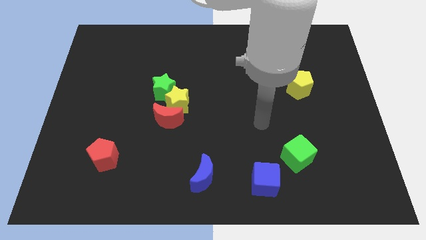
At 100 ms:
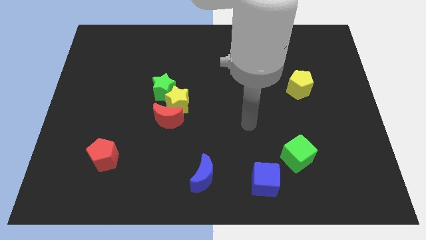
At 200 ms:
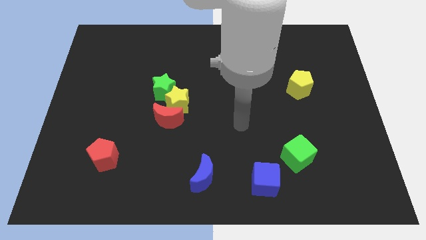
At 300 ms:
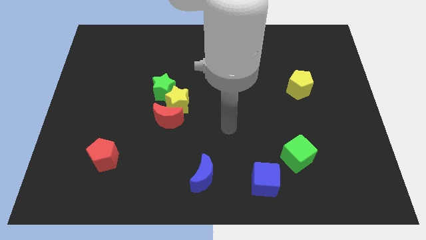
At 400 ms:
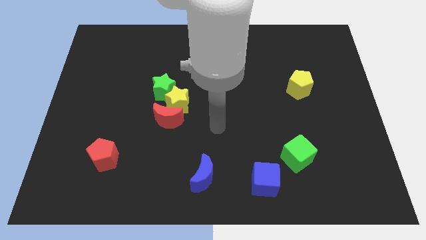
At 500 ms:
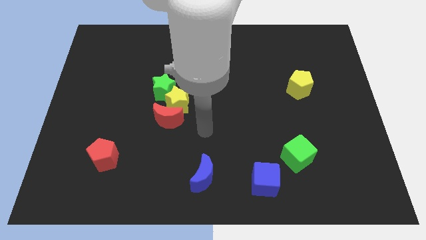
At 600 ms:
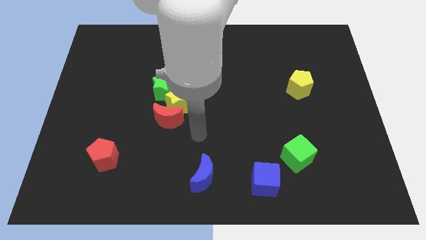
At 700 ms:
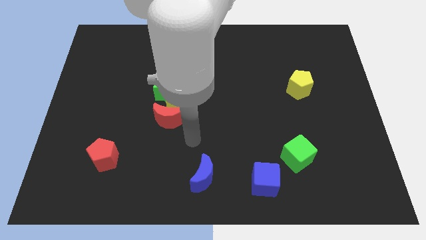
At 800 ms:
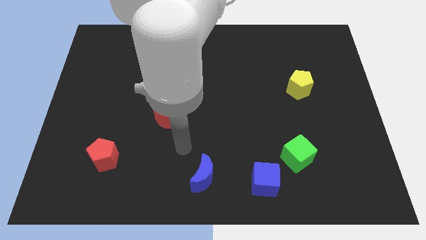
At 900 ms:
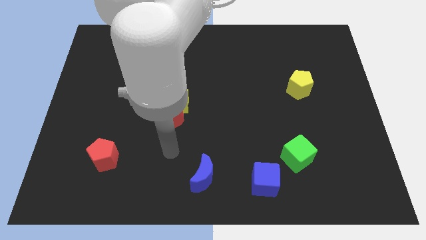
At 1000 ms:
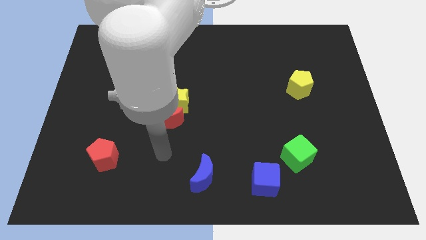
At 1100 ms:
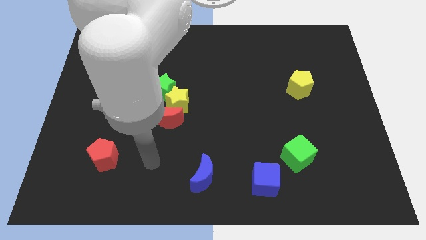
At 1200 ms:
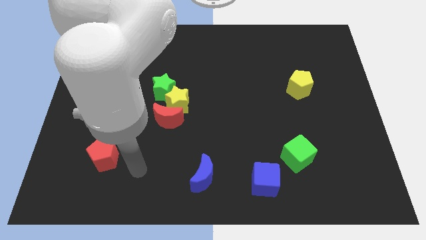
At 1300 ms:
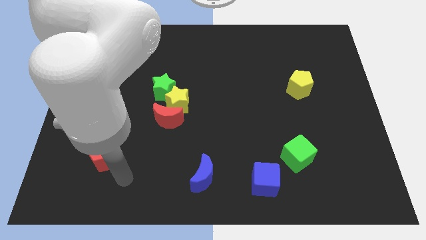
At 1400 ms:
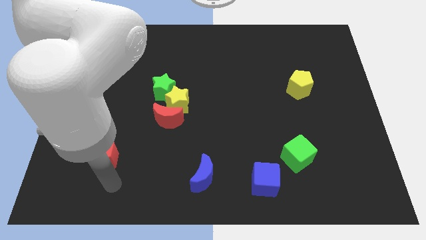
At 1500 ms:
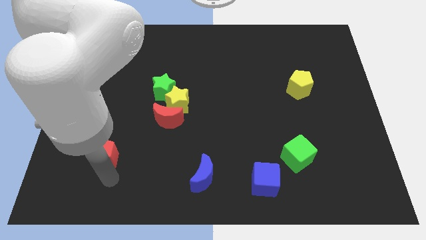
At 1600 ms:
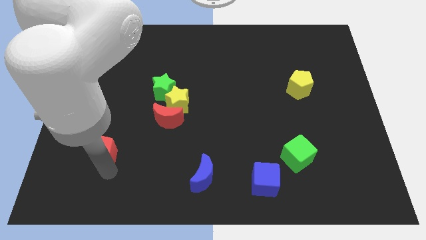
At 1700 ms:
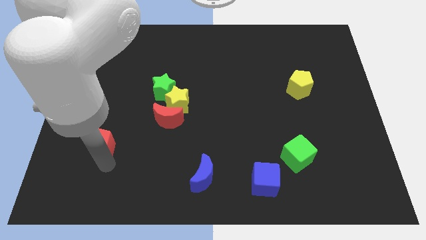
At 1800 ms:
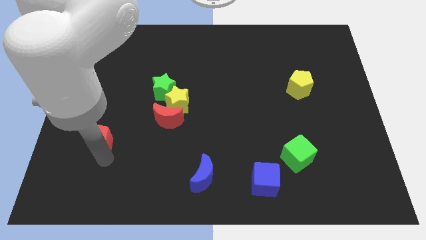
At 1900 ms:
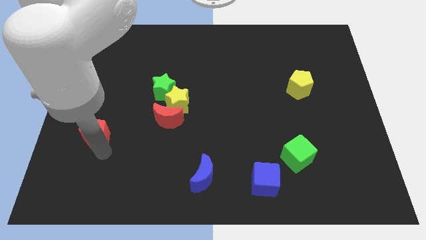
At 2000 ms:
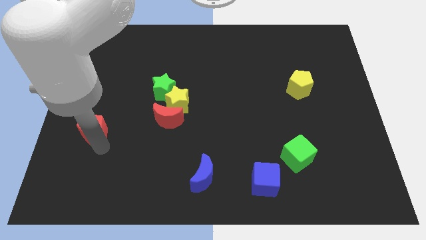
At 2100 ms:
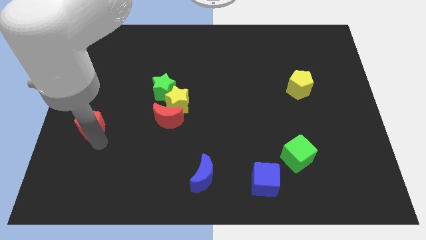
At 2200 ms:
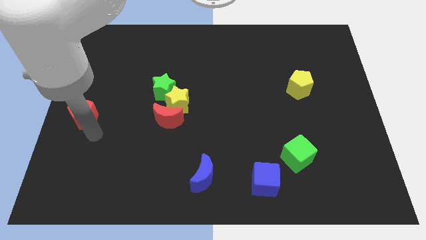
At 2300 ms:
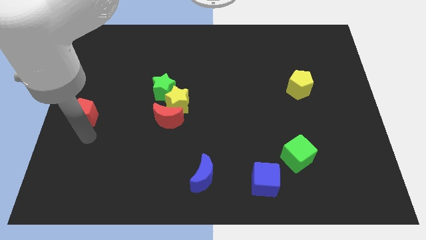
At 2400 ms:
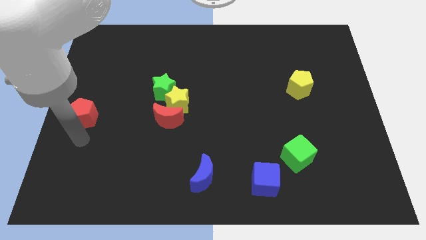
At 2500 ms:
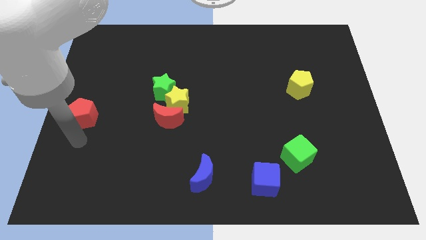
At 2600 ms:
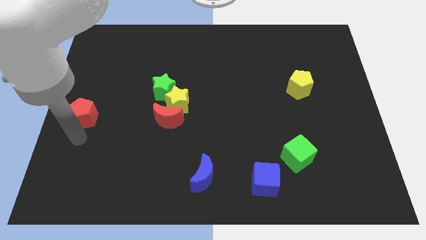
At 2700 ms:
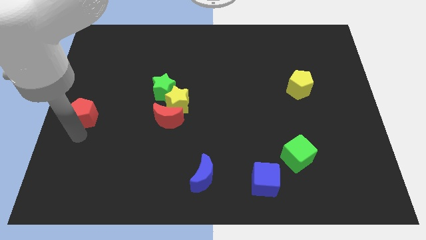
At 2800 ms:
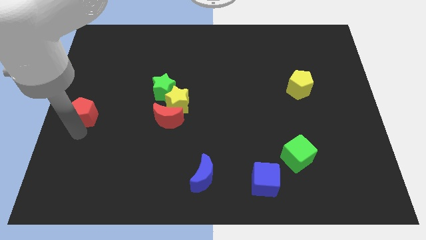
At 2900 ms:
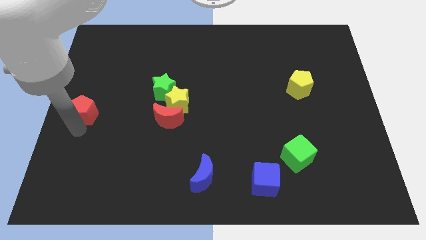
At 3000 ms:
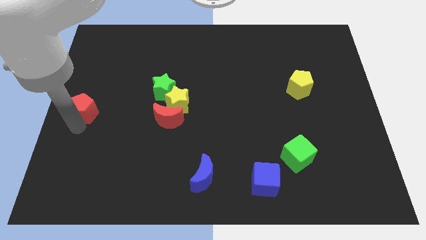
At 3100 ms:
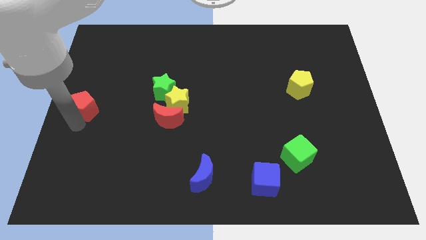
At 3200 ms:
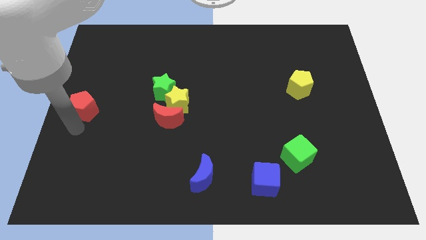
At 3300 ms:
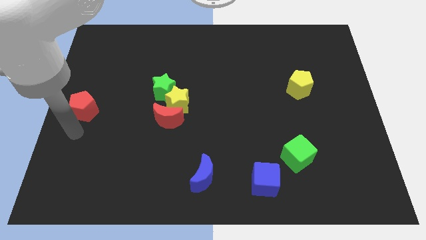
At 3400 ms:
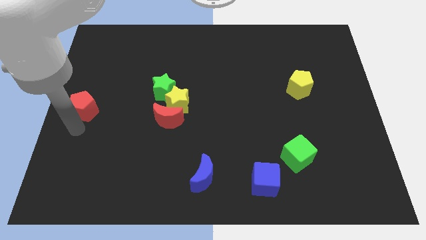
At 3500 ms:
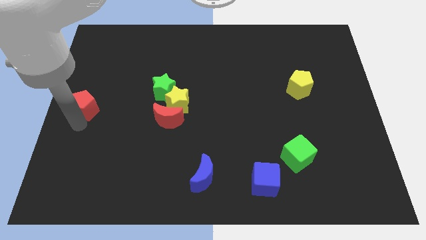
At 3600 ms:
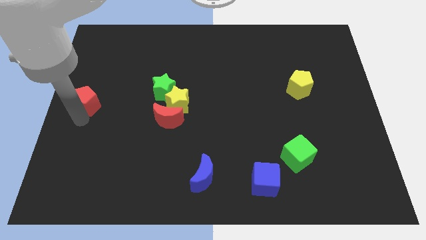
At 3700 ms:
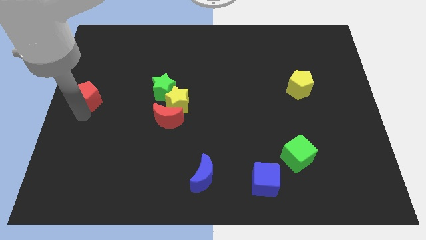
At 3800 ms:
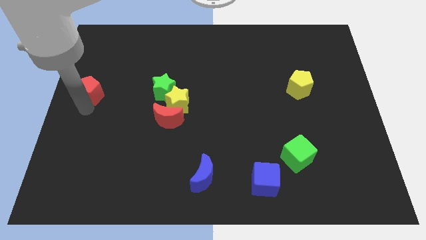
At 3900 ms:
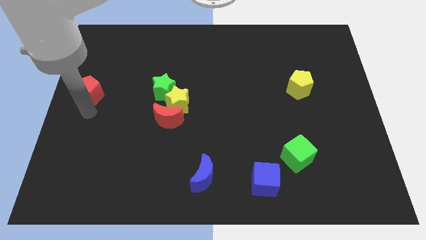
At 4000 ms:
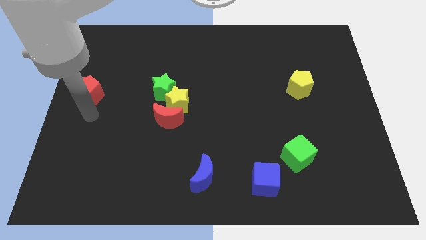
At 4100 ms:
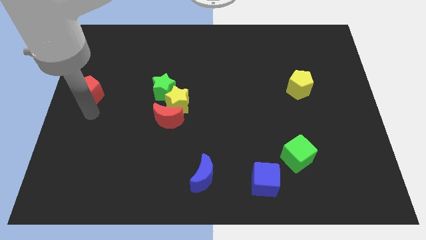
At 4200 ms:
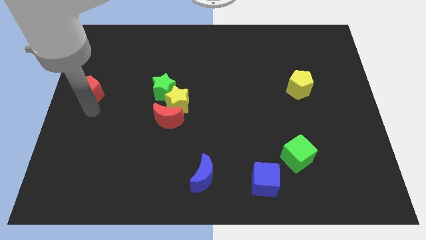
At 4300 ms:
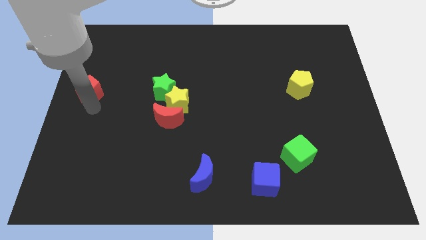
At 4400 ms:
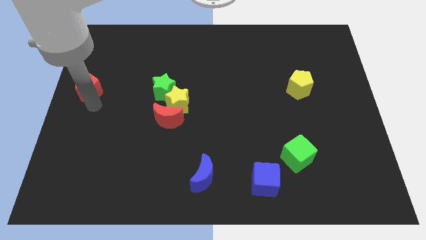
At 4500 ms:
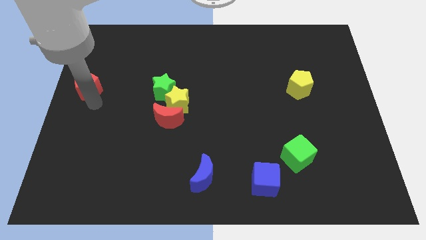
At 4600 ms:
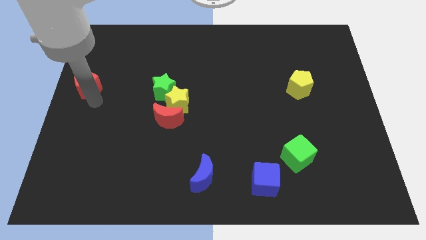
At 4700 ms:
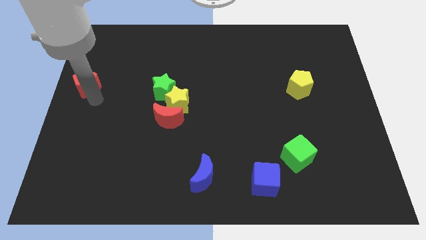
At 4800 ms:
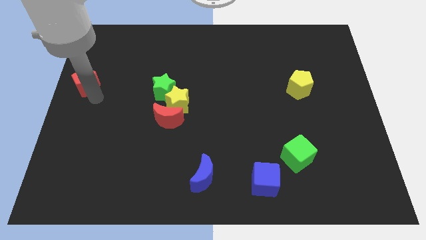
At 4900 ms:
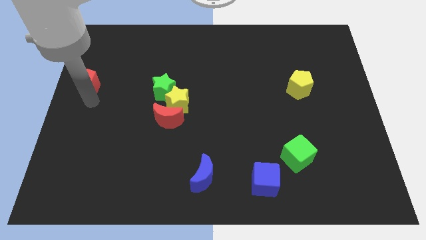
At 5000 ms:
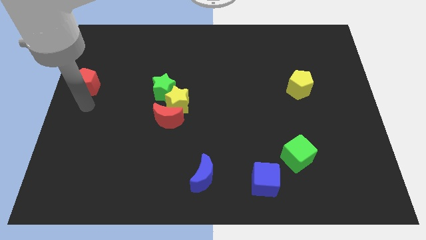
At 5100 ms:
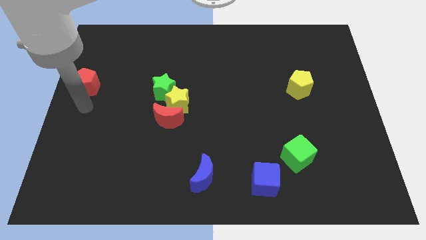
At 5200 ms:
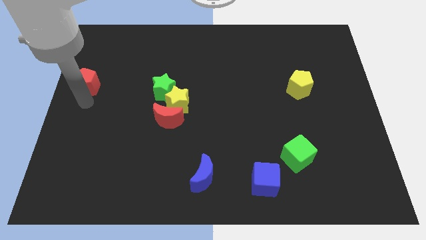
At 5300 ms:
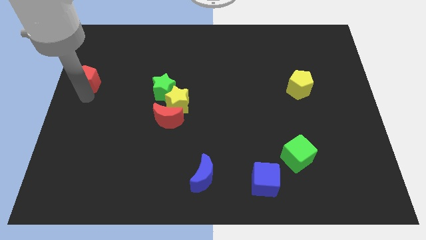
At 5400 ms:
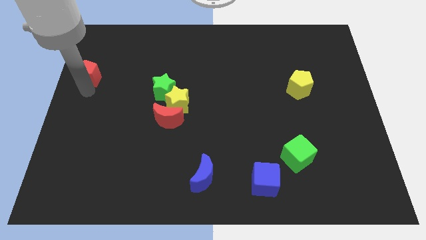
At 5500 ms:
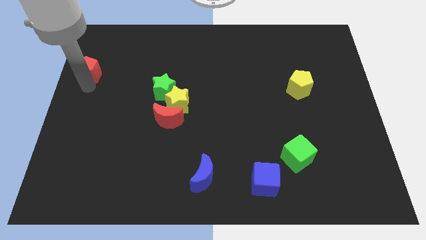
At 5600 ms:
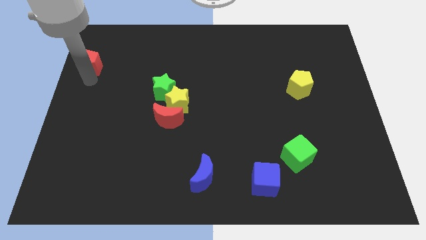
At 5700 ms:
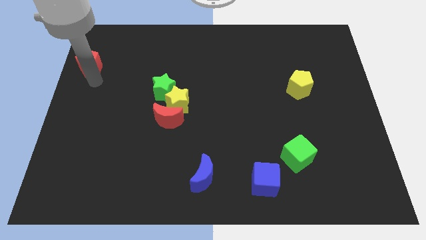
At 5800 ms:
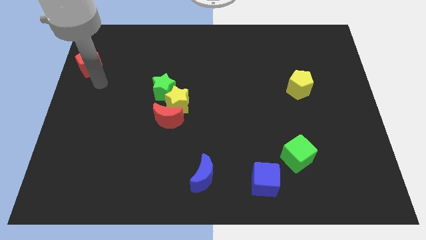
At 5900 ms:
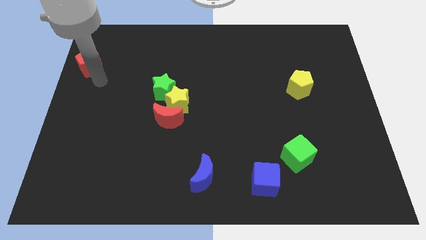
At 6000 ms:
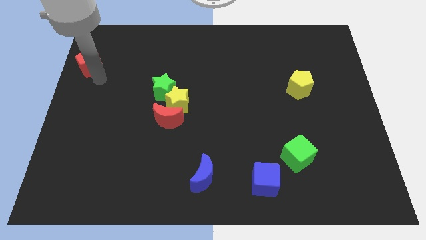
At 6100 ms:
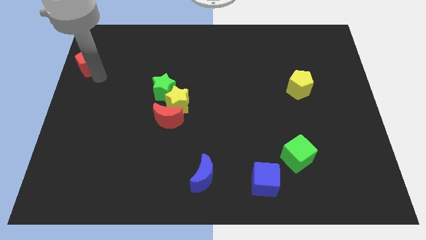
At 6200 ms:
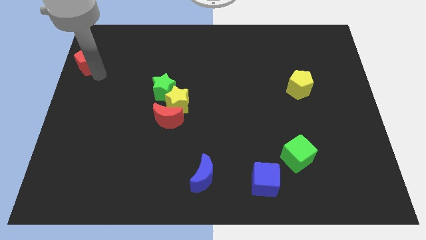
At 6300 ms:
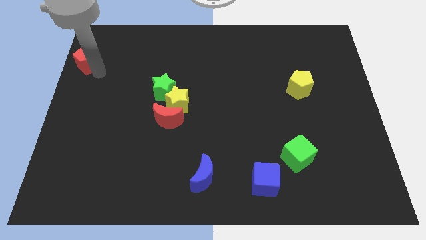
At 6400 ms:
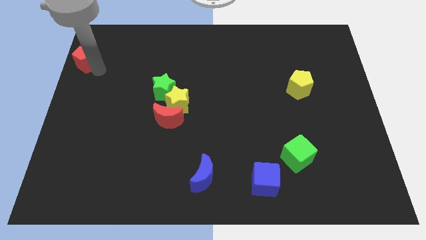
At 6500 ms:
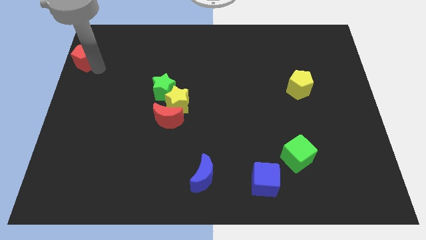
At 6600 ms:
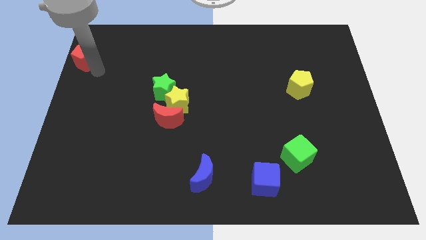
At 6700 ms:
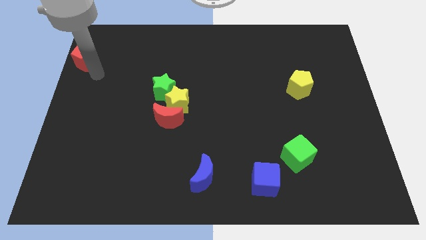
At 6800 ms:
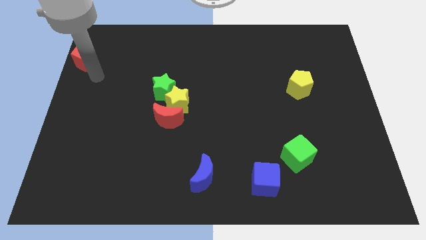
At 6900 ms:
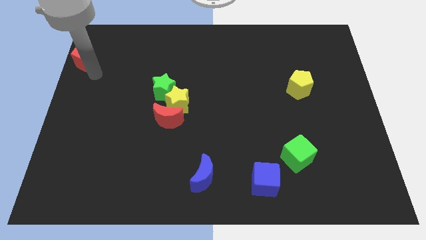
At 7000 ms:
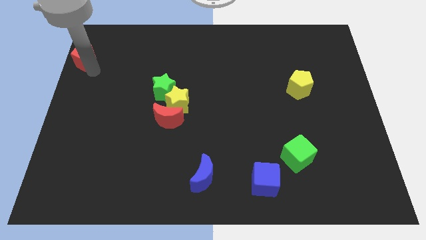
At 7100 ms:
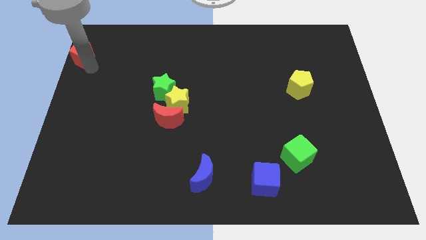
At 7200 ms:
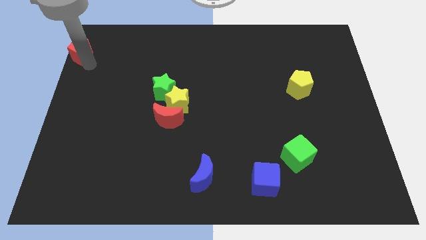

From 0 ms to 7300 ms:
put the red pentagon to the upper left corner

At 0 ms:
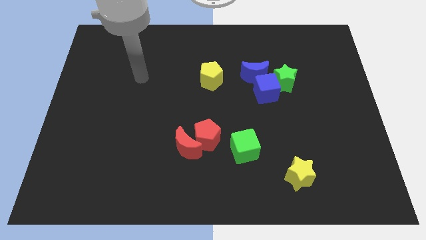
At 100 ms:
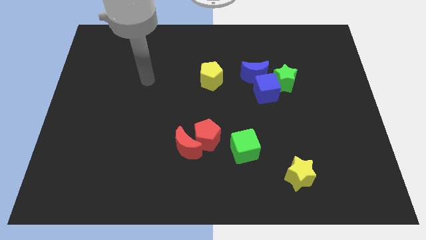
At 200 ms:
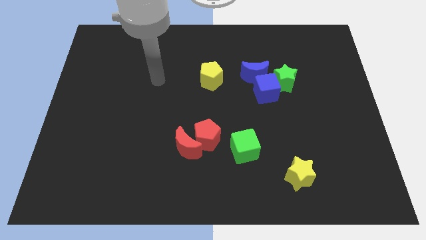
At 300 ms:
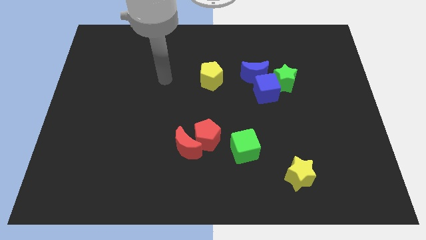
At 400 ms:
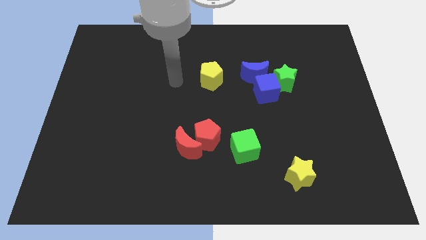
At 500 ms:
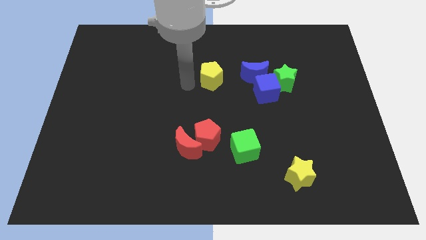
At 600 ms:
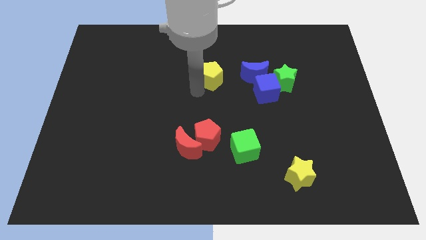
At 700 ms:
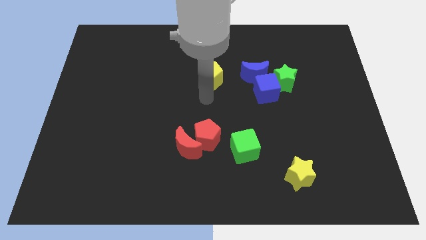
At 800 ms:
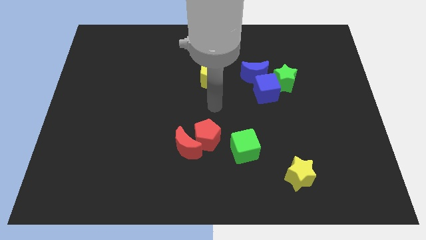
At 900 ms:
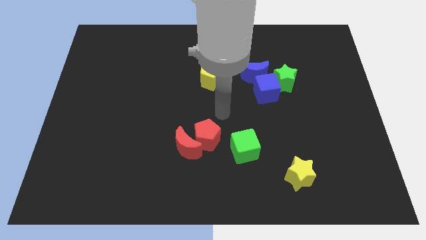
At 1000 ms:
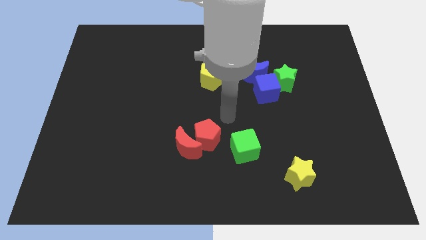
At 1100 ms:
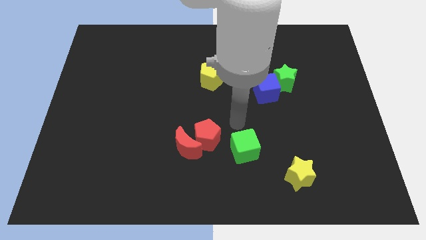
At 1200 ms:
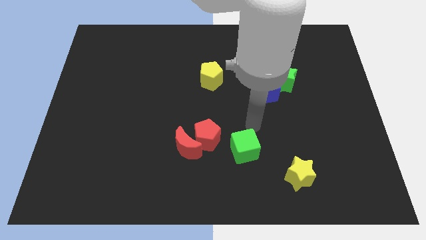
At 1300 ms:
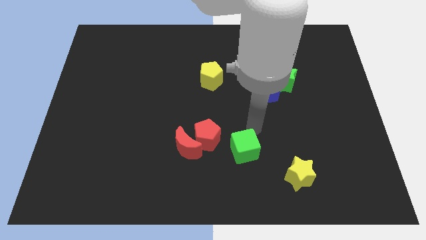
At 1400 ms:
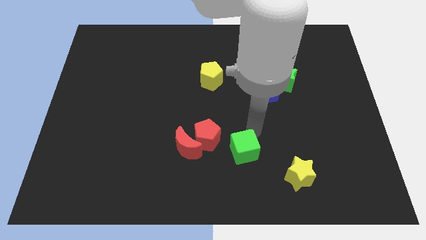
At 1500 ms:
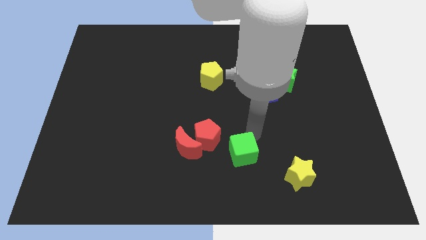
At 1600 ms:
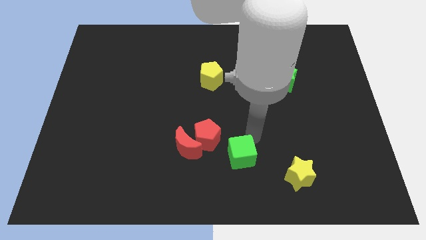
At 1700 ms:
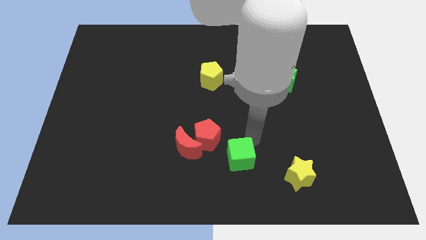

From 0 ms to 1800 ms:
move the green cube to the bottom
